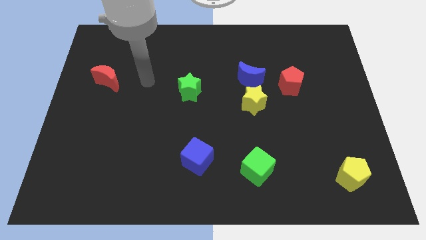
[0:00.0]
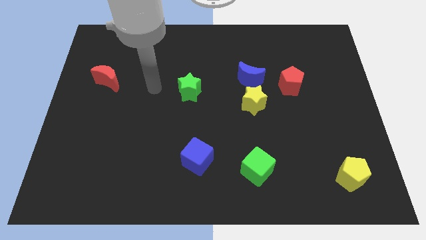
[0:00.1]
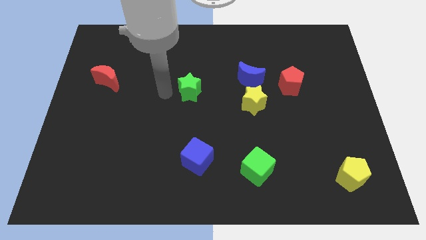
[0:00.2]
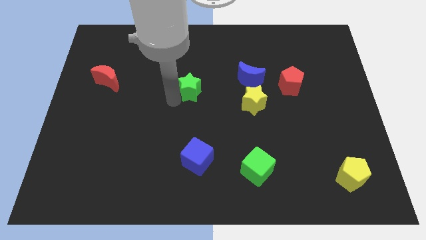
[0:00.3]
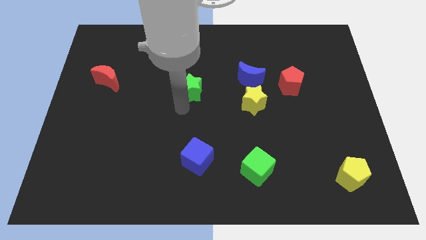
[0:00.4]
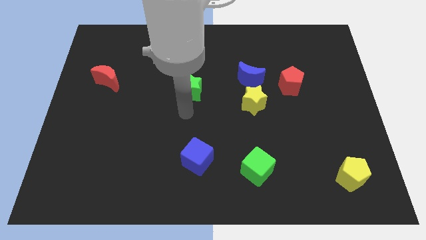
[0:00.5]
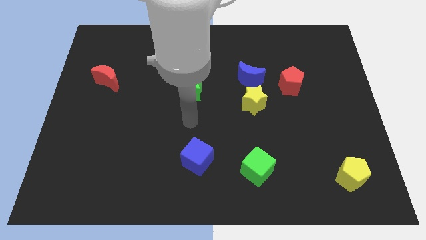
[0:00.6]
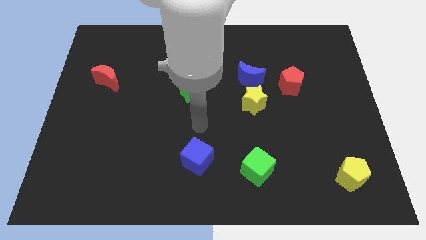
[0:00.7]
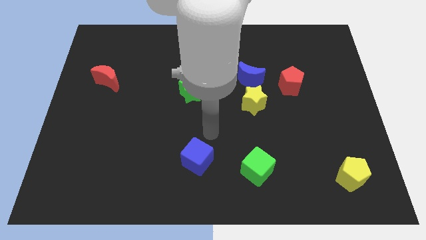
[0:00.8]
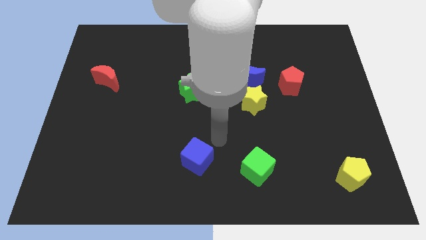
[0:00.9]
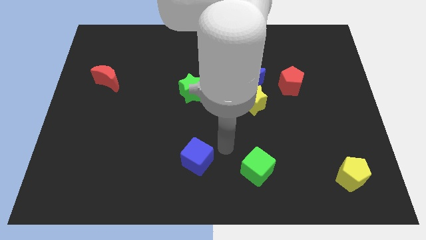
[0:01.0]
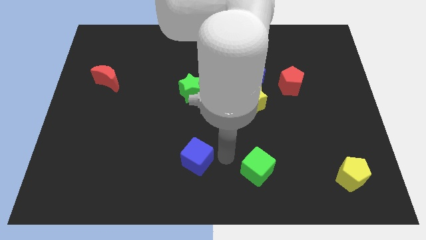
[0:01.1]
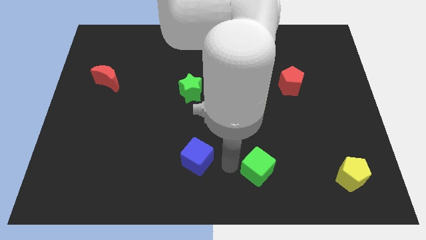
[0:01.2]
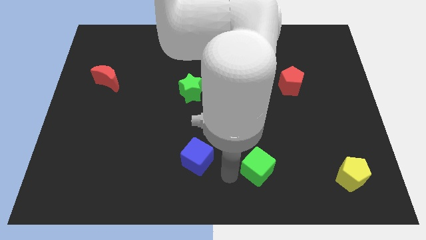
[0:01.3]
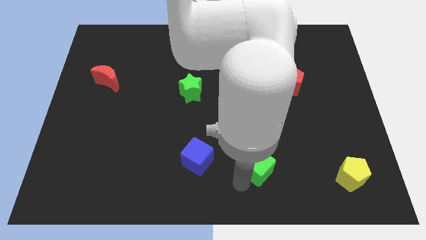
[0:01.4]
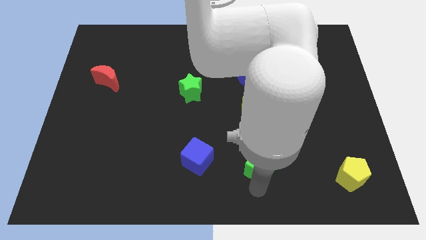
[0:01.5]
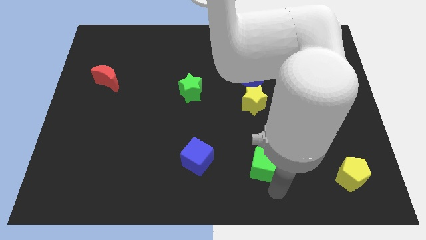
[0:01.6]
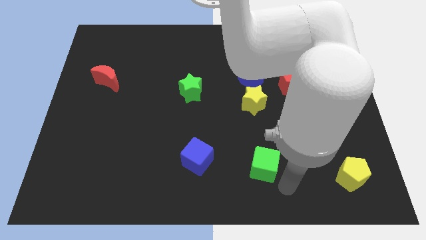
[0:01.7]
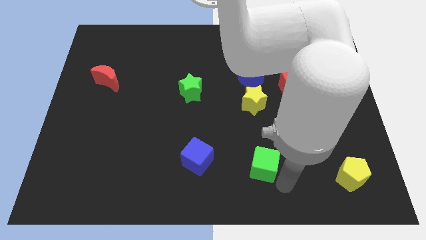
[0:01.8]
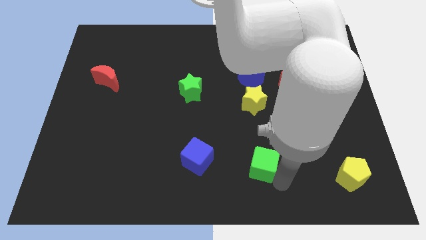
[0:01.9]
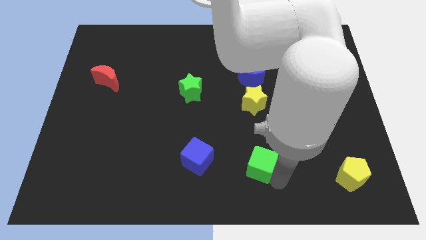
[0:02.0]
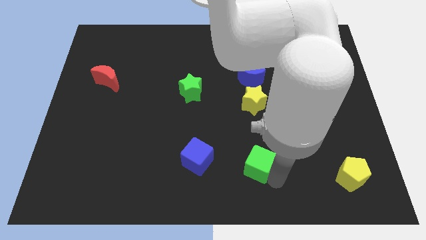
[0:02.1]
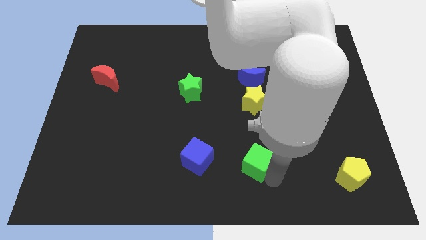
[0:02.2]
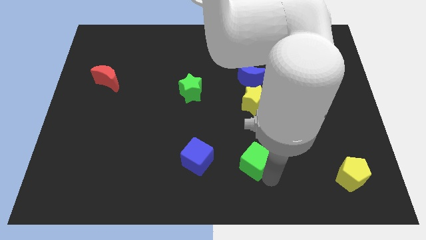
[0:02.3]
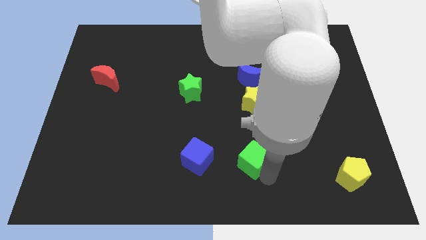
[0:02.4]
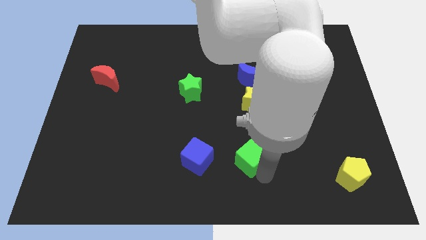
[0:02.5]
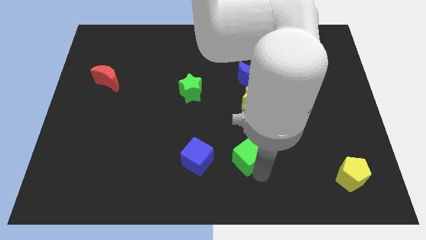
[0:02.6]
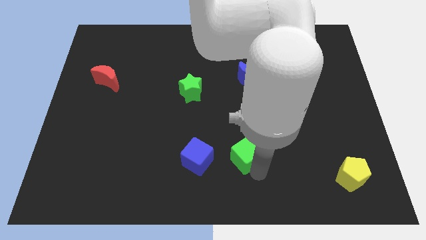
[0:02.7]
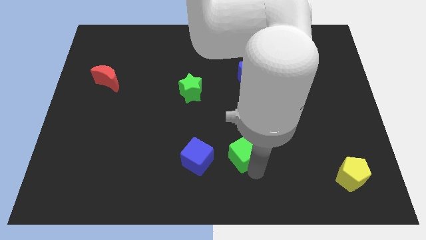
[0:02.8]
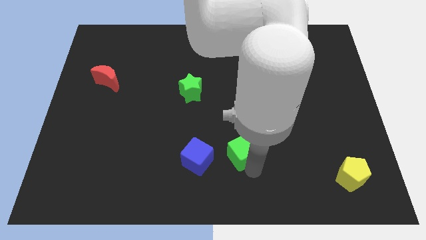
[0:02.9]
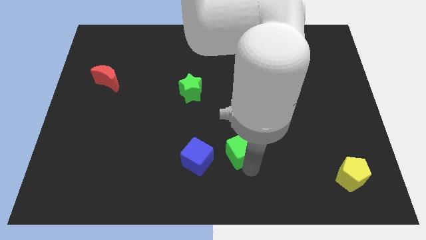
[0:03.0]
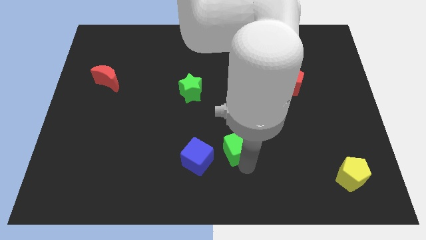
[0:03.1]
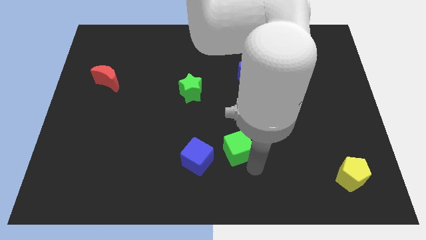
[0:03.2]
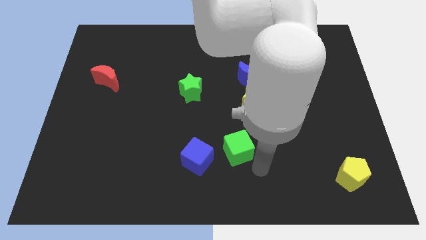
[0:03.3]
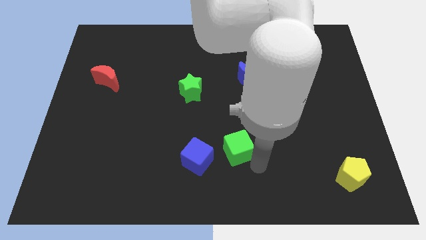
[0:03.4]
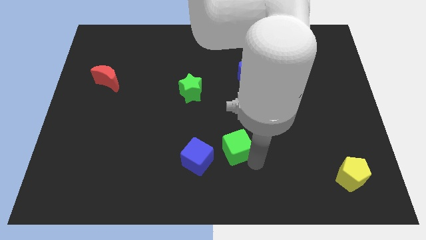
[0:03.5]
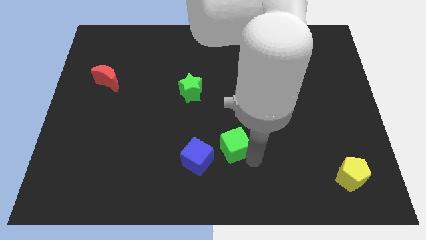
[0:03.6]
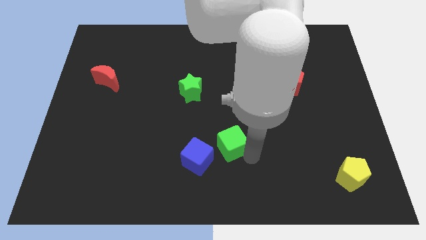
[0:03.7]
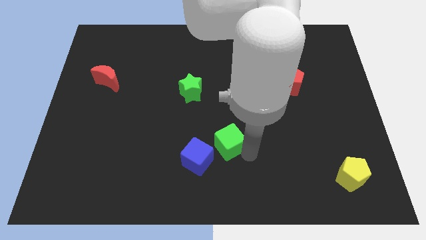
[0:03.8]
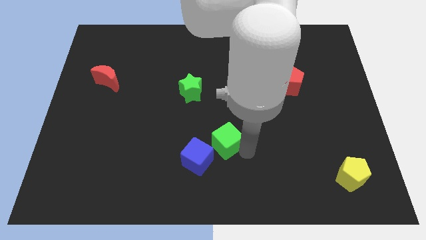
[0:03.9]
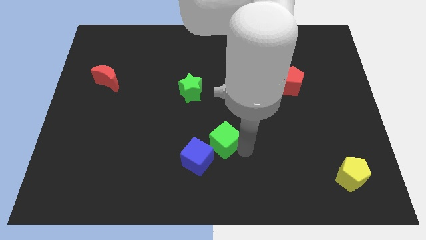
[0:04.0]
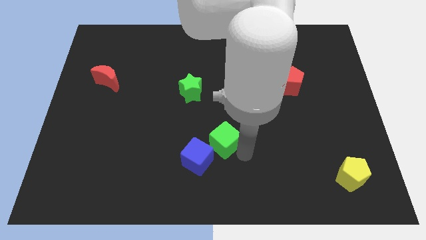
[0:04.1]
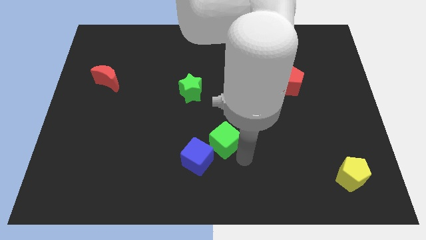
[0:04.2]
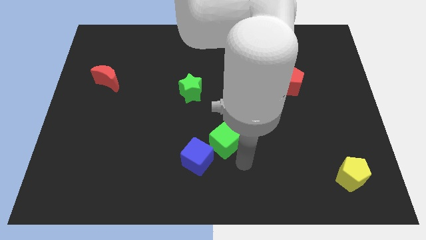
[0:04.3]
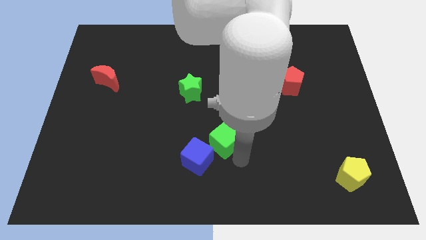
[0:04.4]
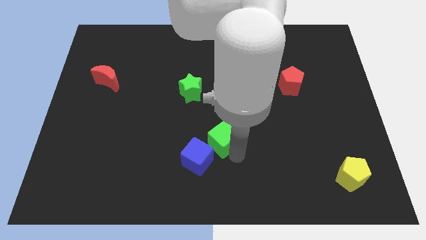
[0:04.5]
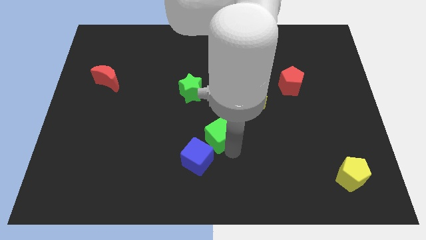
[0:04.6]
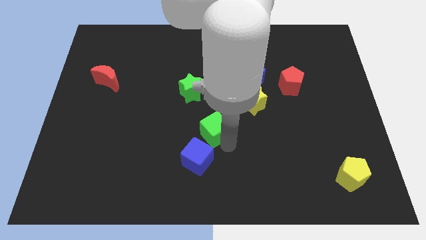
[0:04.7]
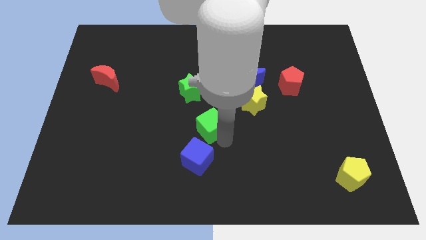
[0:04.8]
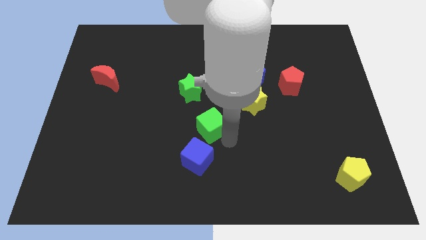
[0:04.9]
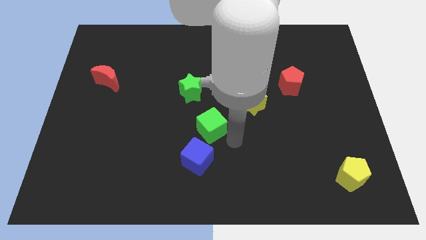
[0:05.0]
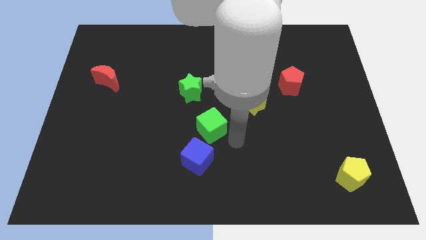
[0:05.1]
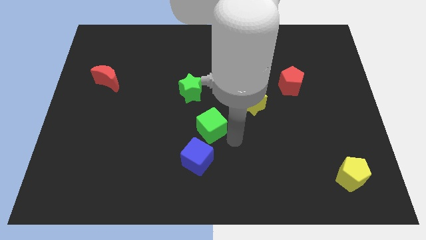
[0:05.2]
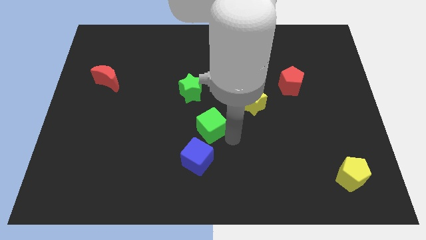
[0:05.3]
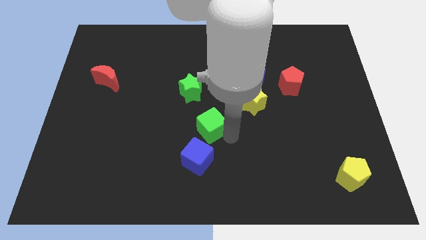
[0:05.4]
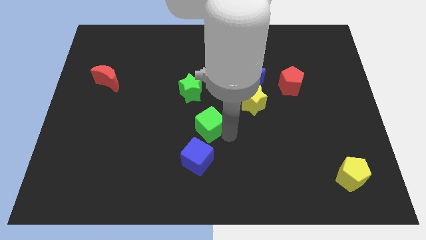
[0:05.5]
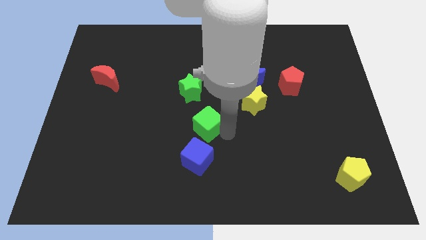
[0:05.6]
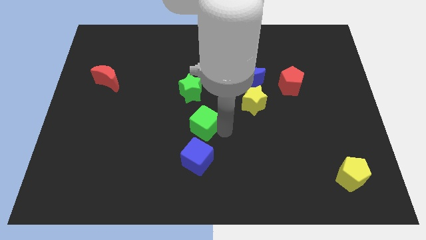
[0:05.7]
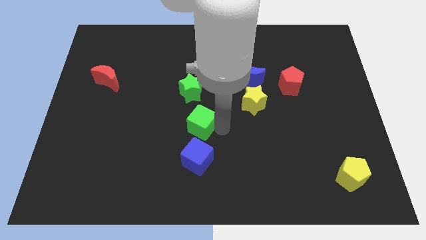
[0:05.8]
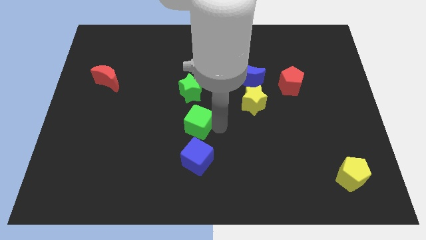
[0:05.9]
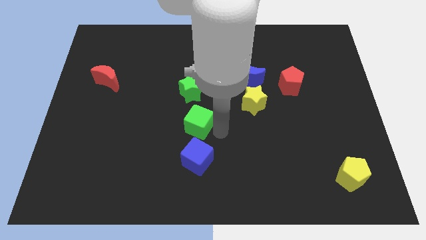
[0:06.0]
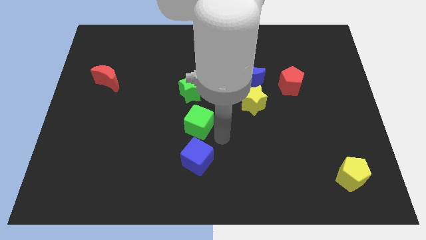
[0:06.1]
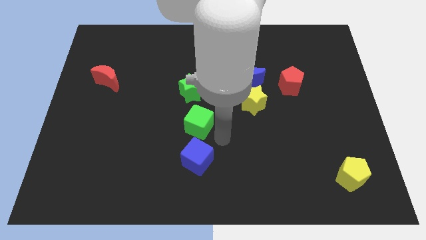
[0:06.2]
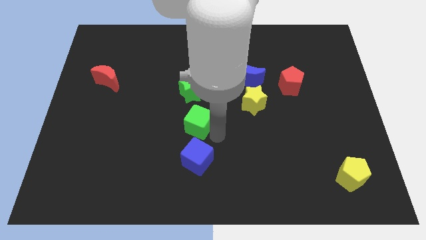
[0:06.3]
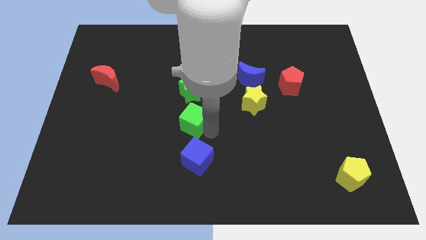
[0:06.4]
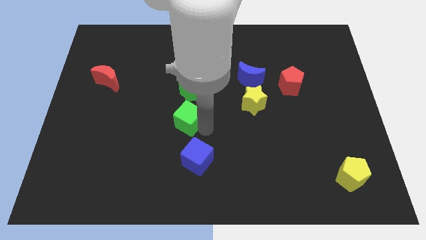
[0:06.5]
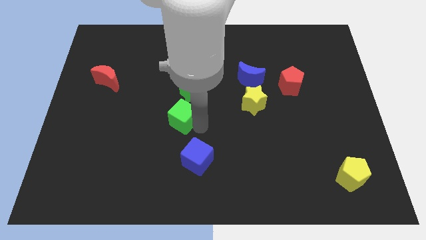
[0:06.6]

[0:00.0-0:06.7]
move the green cube diagonally upwards and to the left

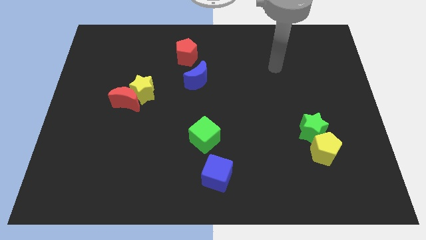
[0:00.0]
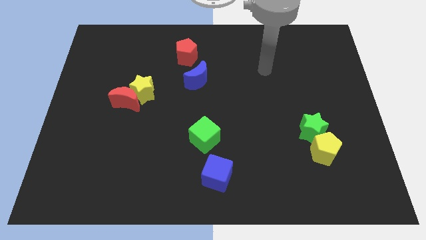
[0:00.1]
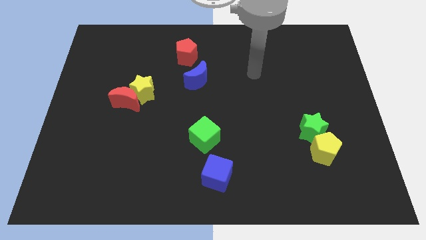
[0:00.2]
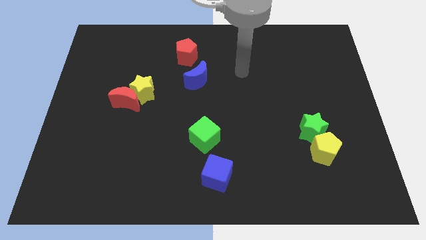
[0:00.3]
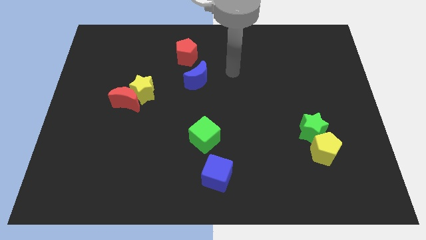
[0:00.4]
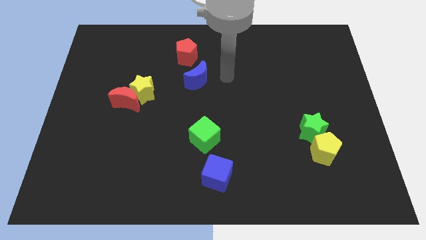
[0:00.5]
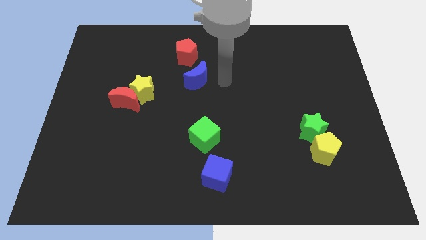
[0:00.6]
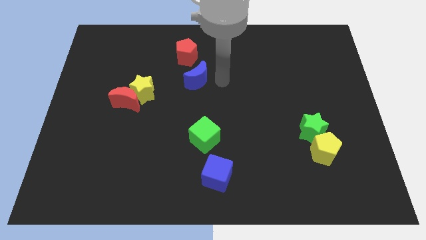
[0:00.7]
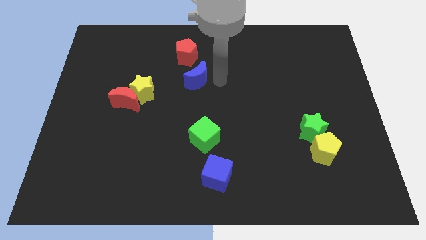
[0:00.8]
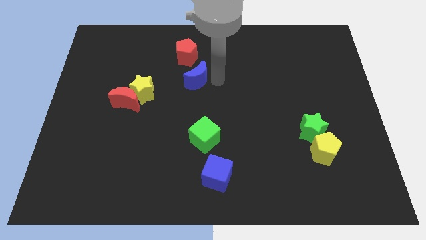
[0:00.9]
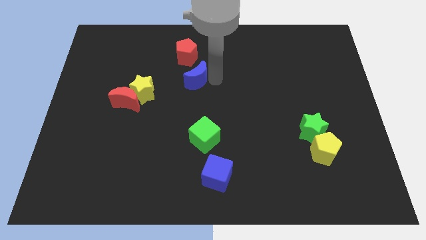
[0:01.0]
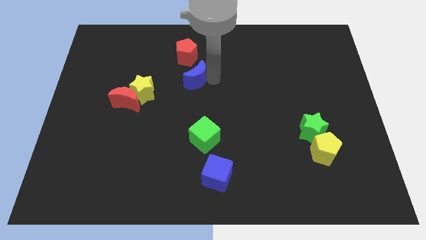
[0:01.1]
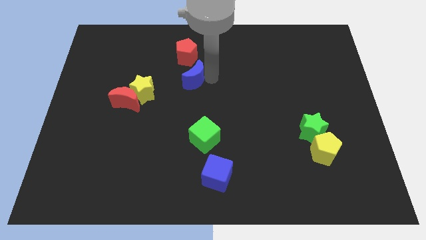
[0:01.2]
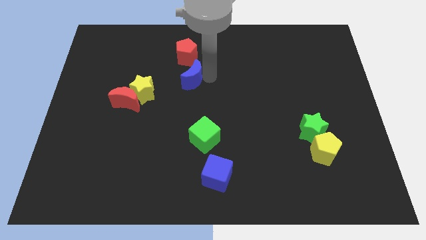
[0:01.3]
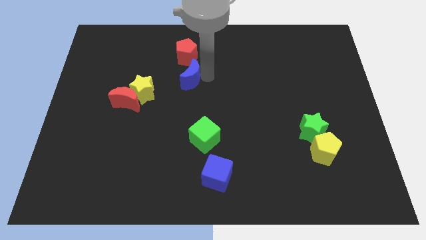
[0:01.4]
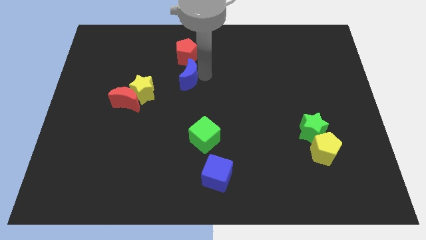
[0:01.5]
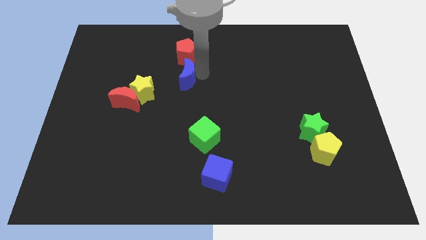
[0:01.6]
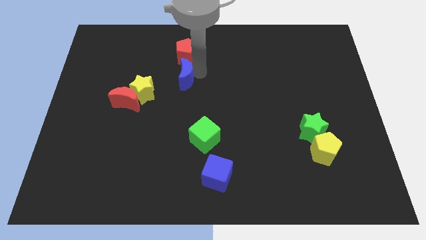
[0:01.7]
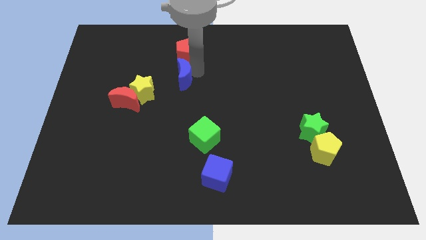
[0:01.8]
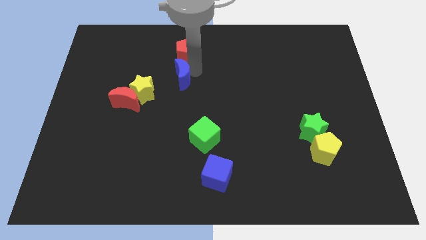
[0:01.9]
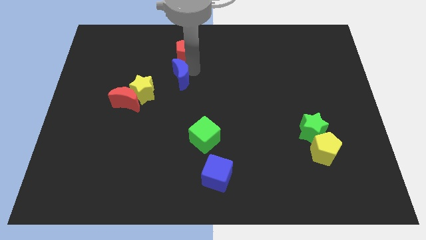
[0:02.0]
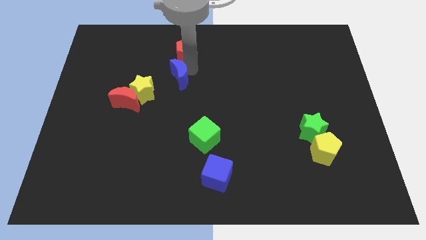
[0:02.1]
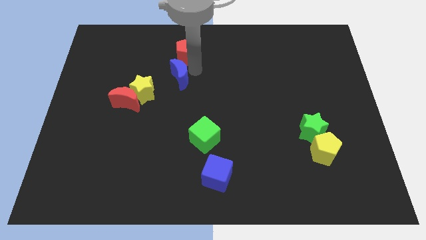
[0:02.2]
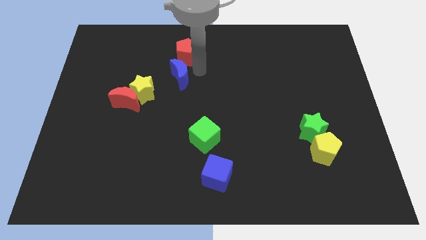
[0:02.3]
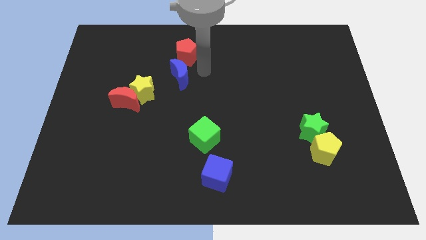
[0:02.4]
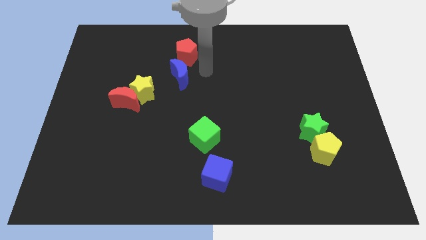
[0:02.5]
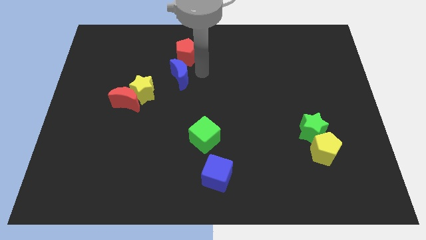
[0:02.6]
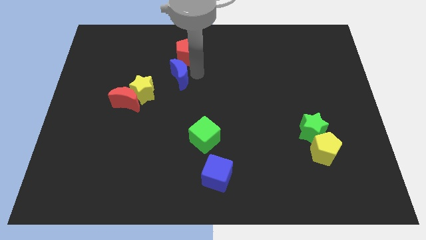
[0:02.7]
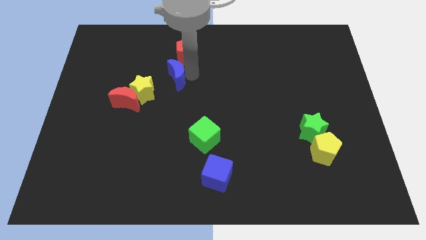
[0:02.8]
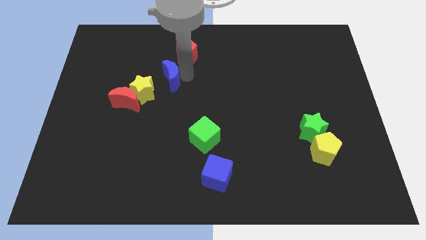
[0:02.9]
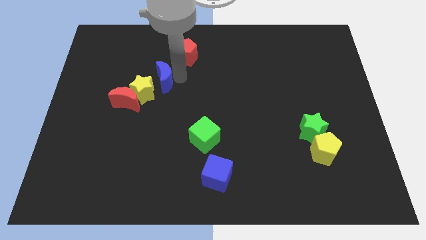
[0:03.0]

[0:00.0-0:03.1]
slide the blue moon a little left
